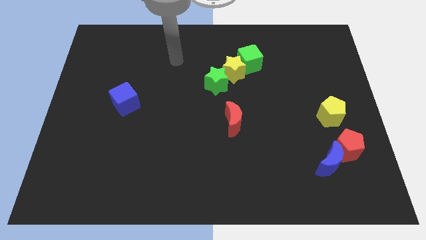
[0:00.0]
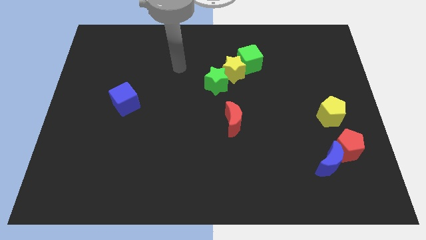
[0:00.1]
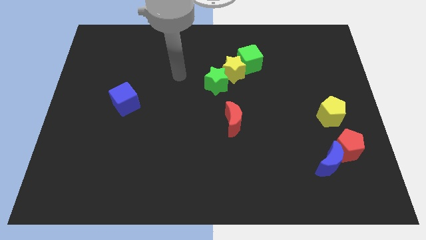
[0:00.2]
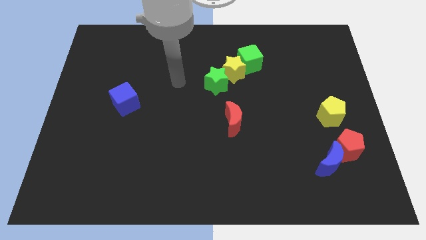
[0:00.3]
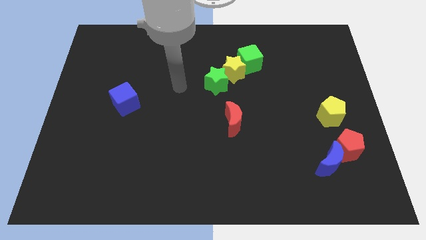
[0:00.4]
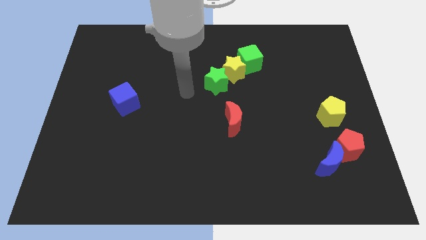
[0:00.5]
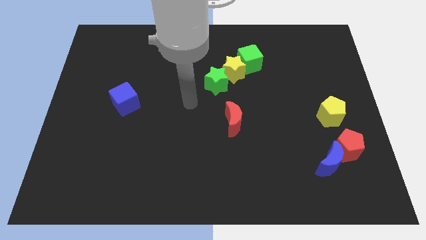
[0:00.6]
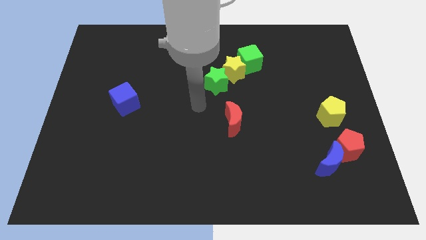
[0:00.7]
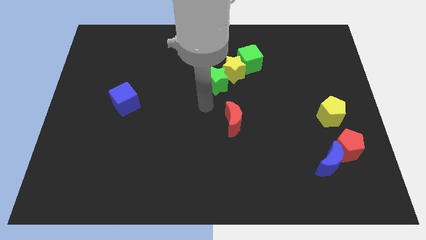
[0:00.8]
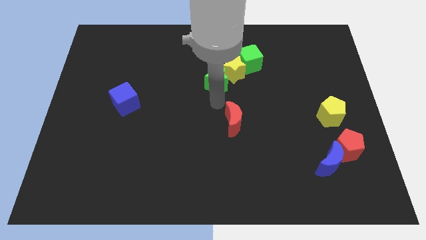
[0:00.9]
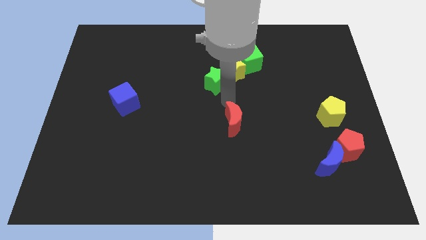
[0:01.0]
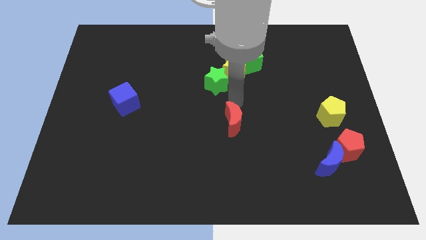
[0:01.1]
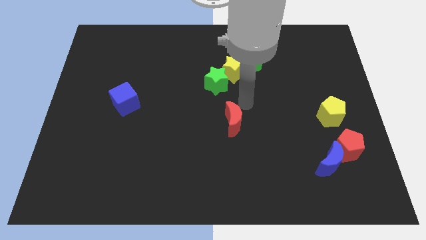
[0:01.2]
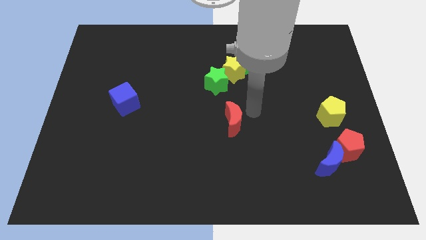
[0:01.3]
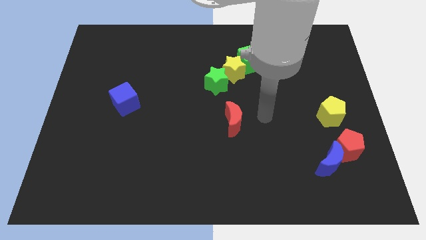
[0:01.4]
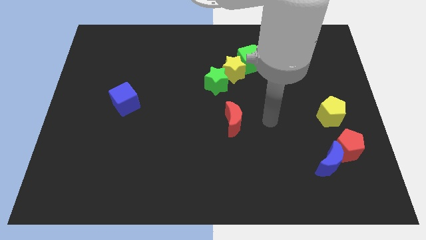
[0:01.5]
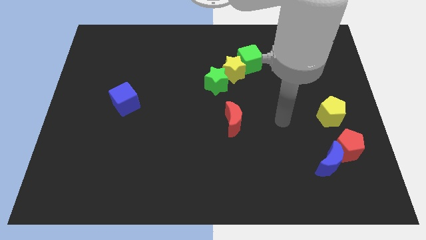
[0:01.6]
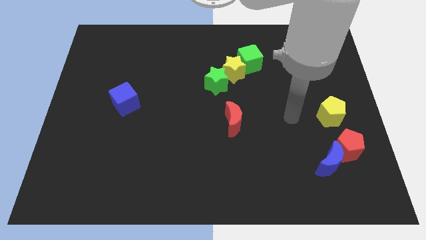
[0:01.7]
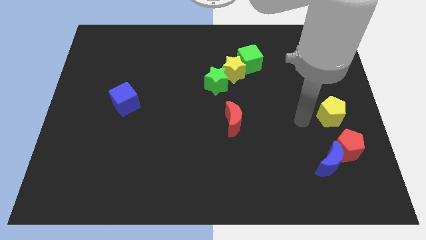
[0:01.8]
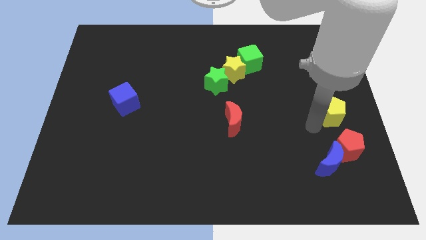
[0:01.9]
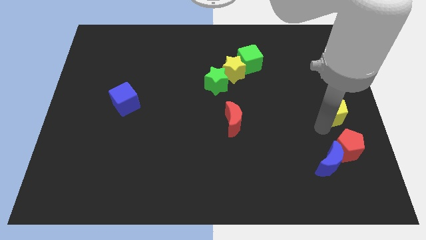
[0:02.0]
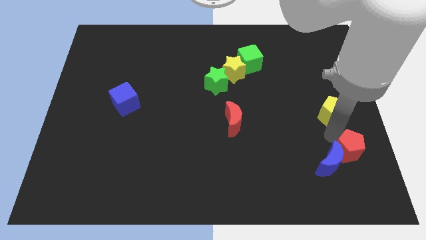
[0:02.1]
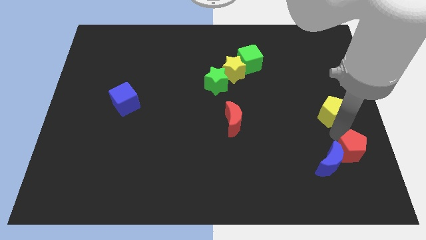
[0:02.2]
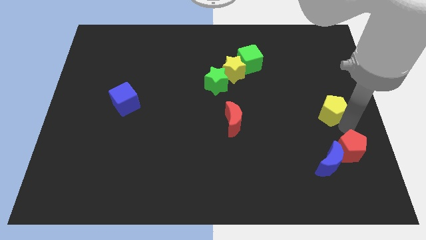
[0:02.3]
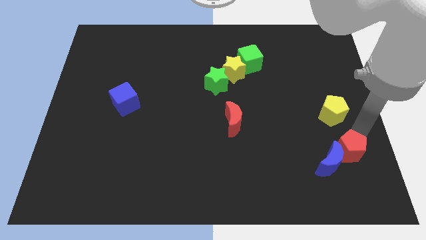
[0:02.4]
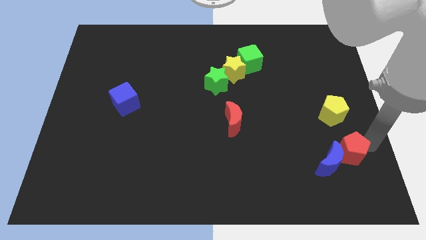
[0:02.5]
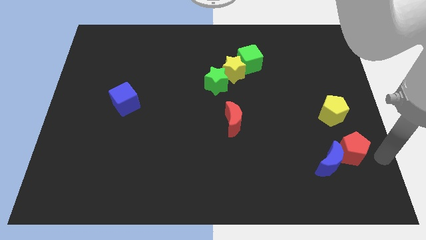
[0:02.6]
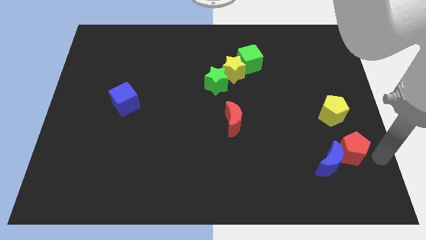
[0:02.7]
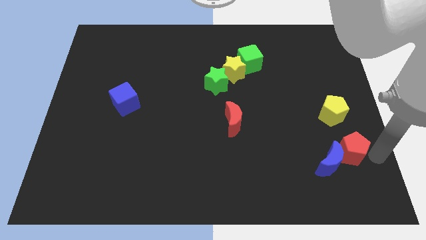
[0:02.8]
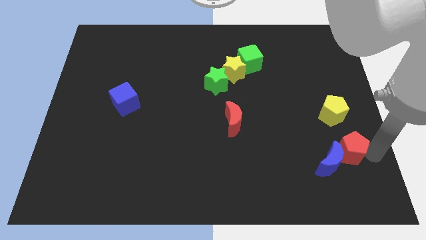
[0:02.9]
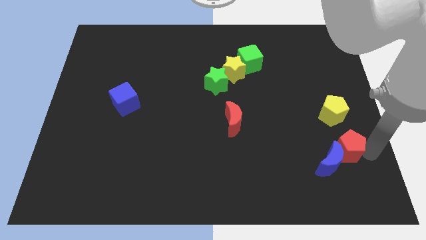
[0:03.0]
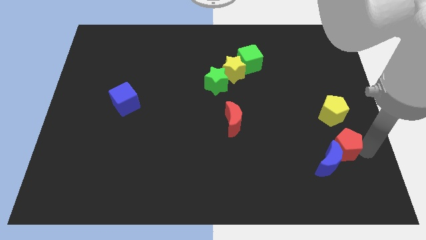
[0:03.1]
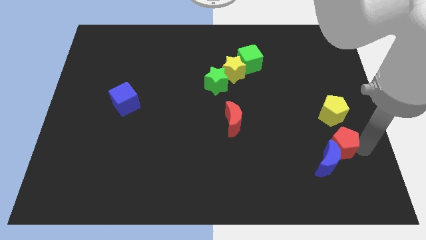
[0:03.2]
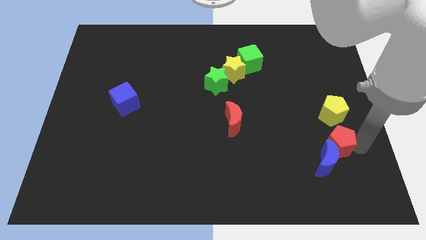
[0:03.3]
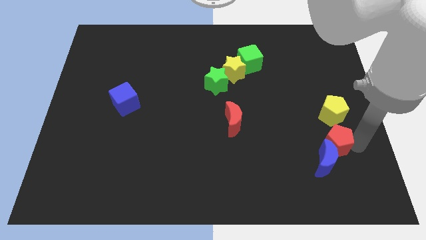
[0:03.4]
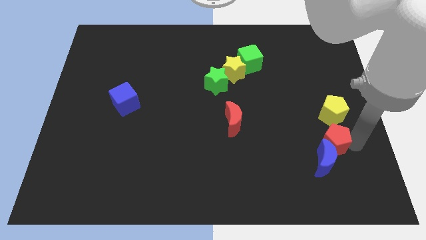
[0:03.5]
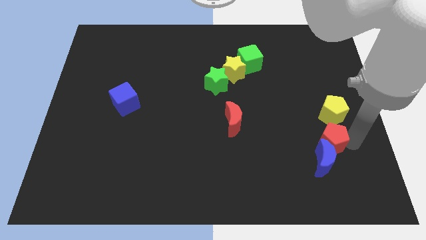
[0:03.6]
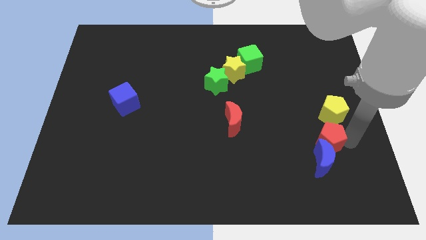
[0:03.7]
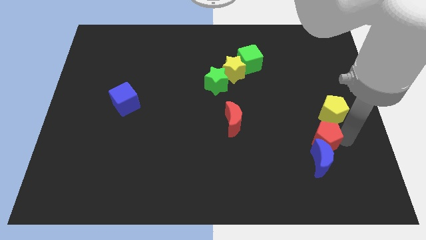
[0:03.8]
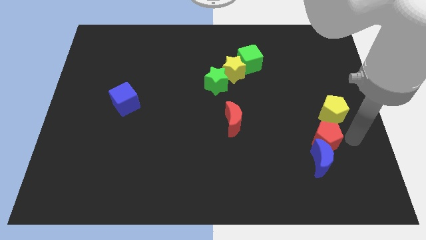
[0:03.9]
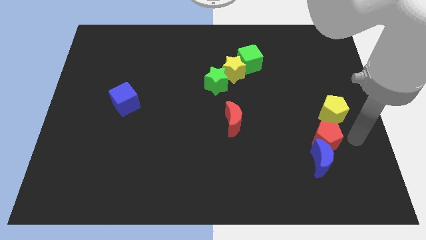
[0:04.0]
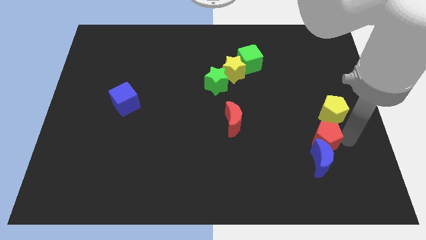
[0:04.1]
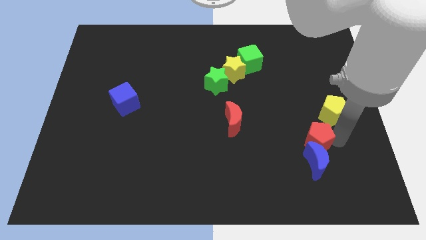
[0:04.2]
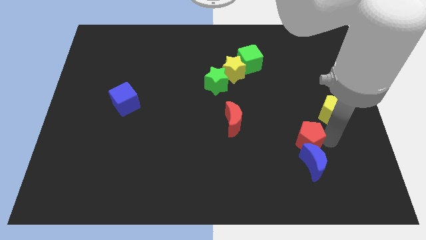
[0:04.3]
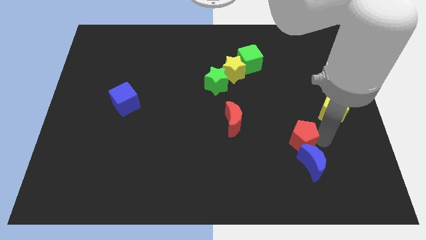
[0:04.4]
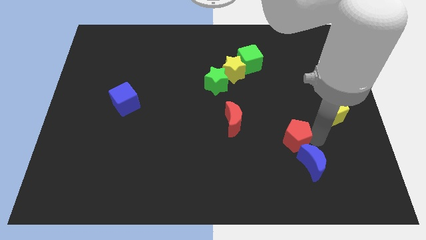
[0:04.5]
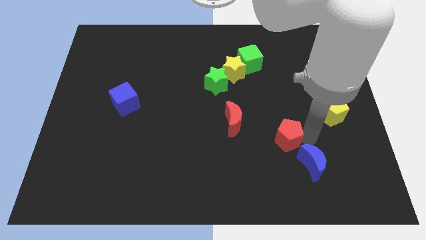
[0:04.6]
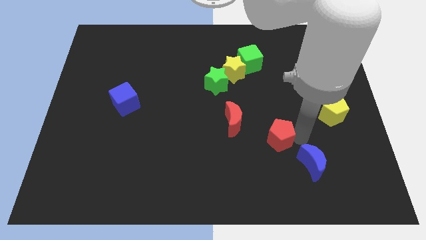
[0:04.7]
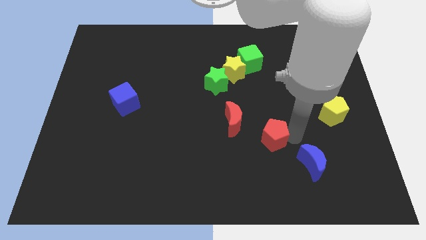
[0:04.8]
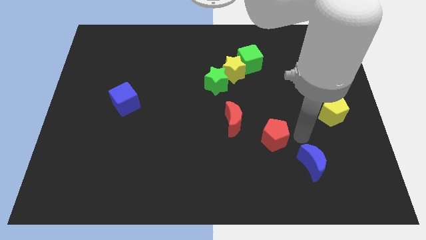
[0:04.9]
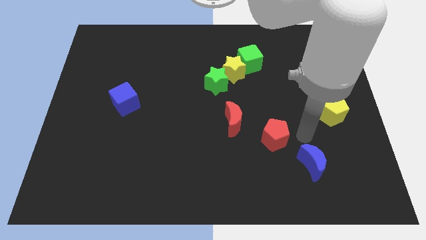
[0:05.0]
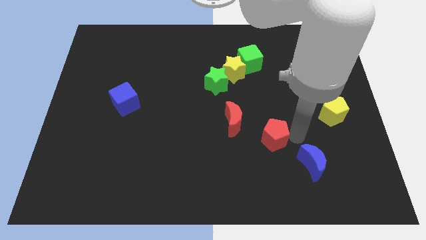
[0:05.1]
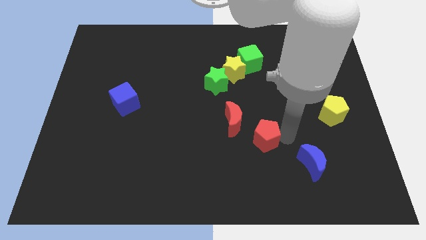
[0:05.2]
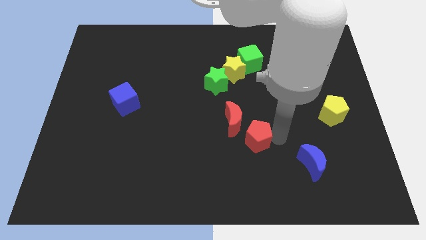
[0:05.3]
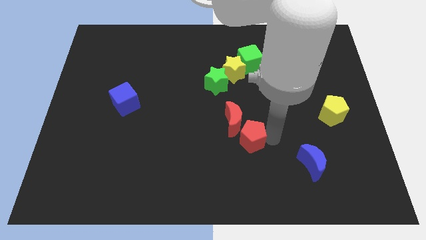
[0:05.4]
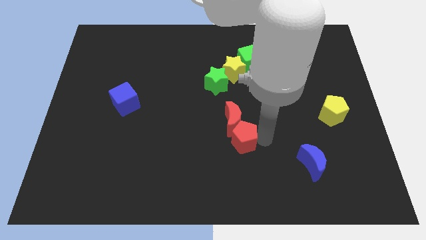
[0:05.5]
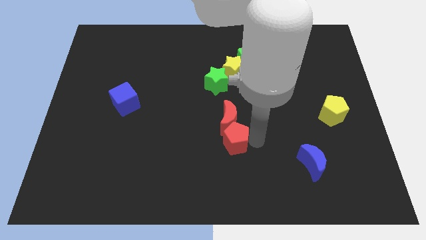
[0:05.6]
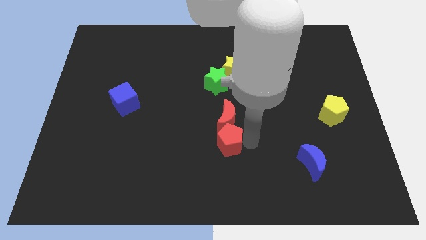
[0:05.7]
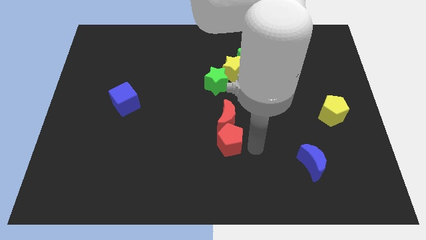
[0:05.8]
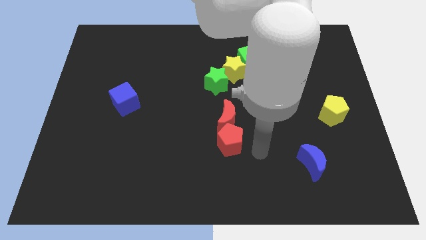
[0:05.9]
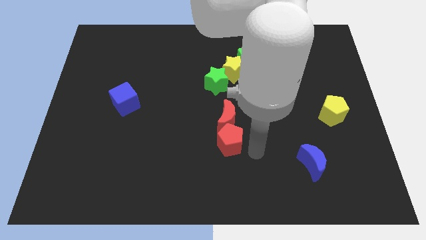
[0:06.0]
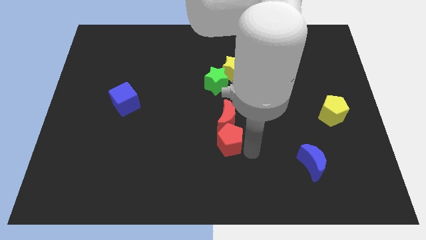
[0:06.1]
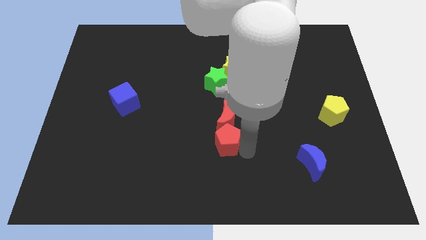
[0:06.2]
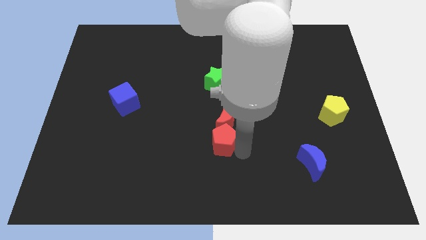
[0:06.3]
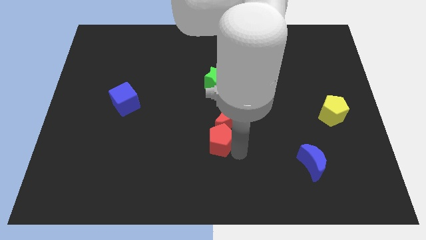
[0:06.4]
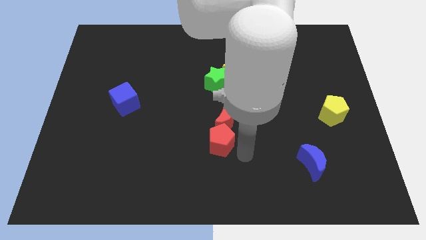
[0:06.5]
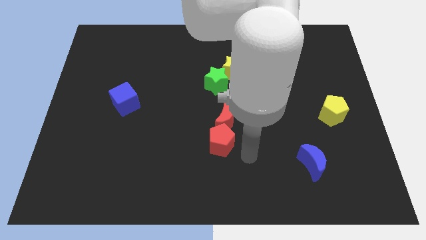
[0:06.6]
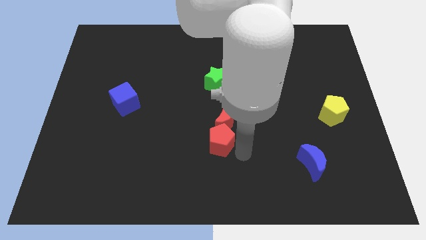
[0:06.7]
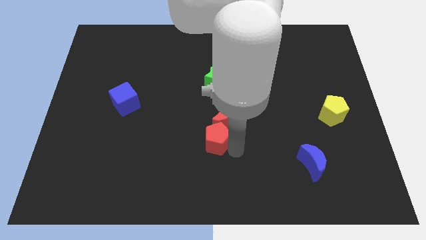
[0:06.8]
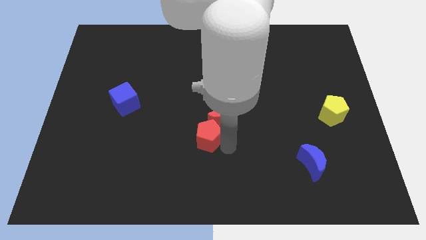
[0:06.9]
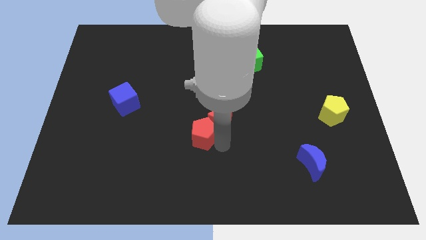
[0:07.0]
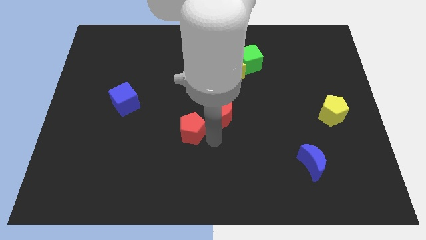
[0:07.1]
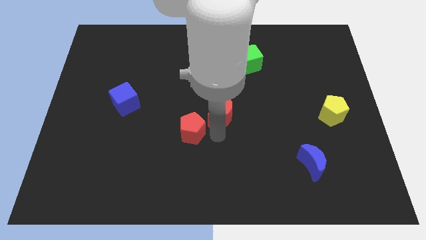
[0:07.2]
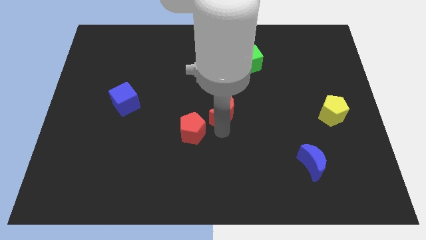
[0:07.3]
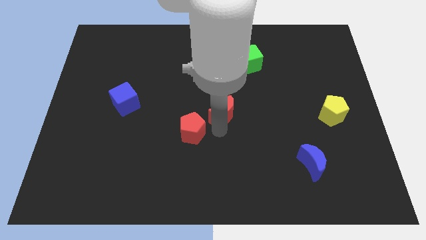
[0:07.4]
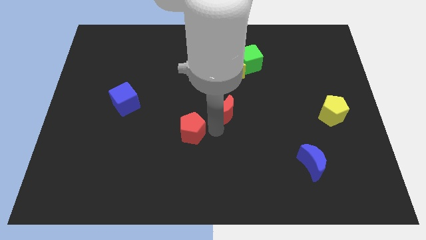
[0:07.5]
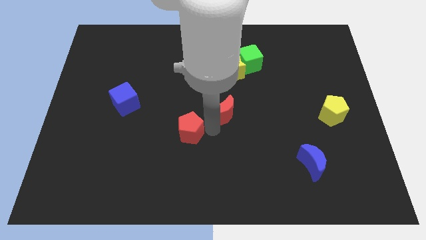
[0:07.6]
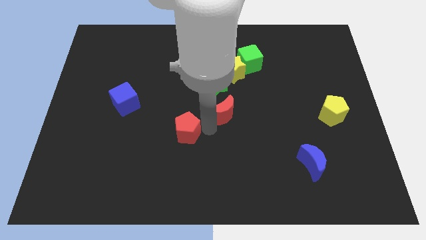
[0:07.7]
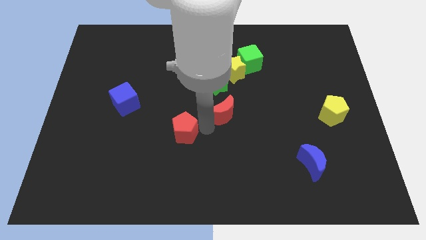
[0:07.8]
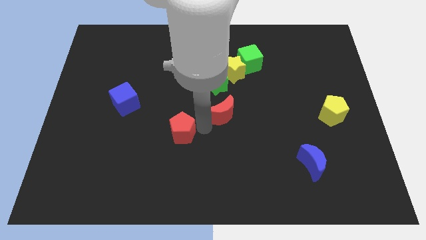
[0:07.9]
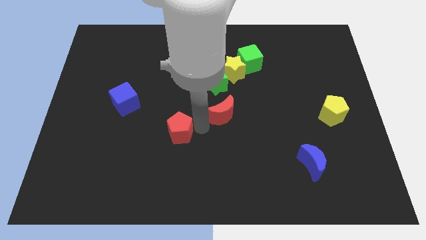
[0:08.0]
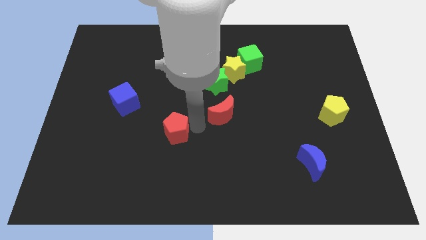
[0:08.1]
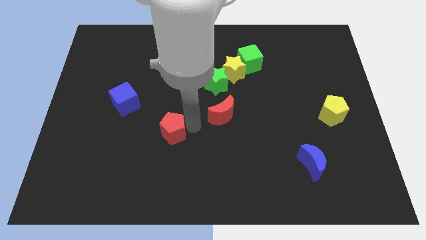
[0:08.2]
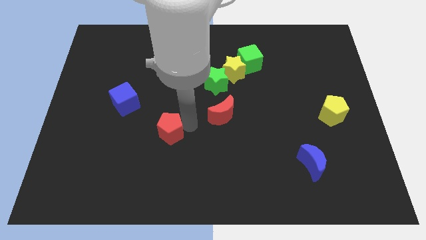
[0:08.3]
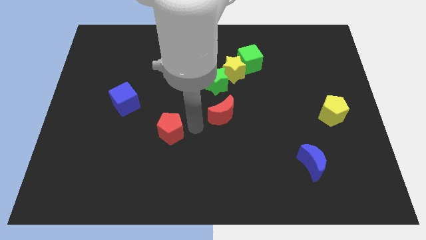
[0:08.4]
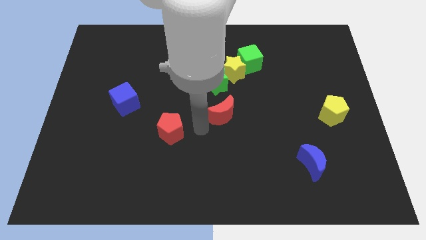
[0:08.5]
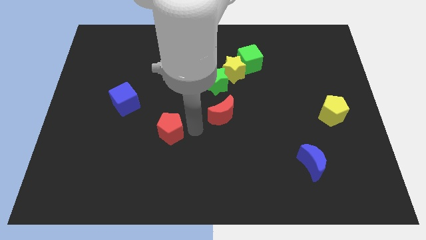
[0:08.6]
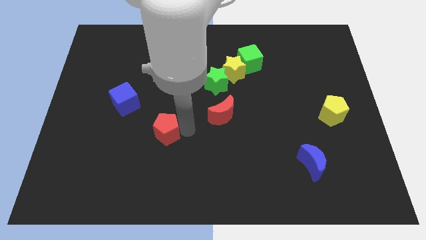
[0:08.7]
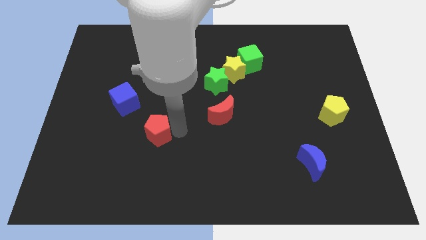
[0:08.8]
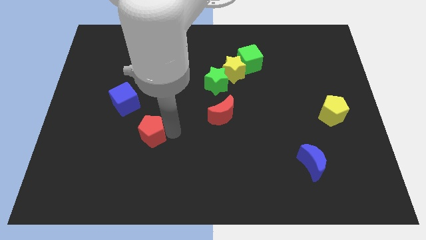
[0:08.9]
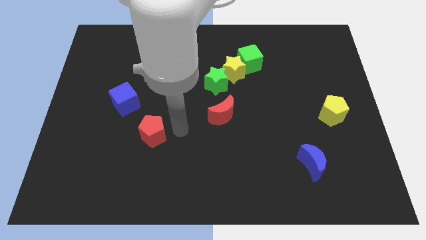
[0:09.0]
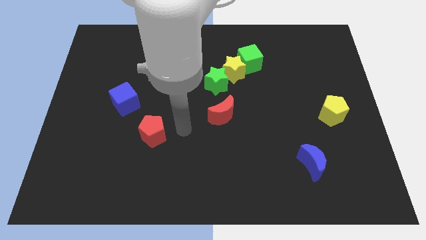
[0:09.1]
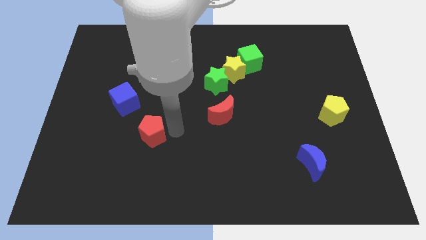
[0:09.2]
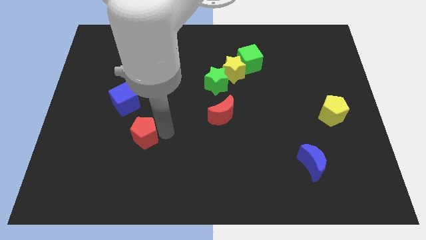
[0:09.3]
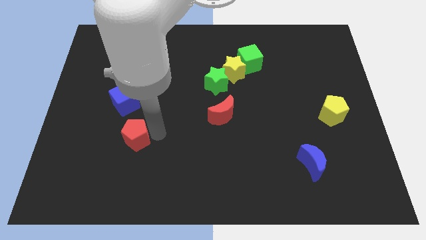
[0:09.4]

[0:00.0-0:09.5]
move the red pentagon below the blue cube
